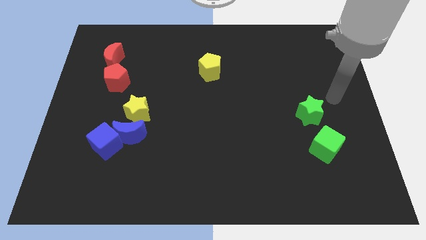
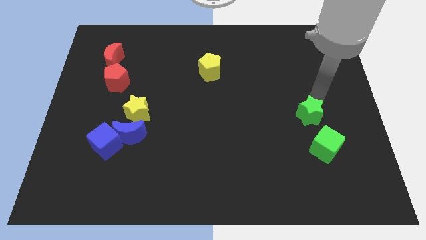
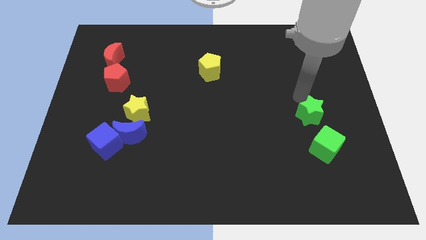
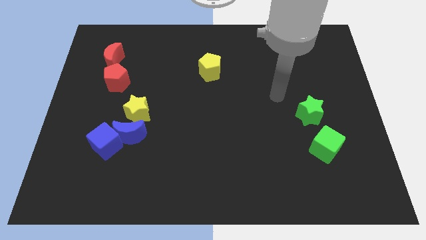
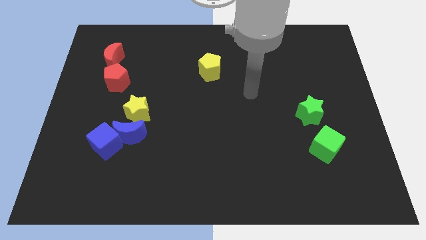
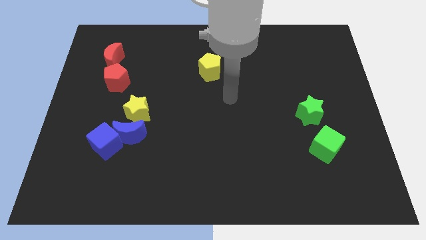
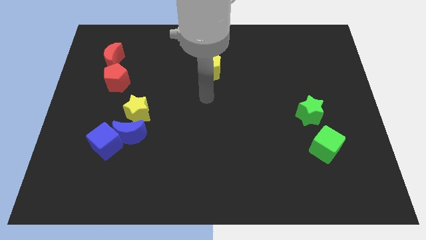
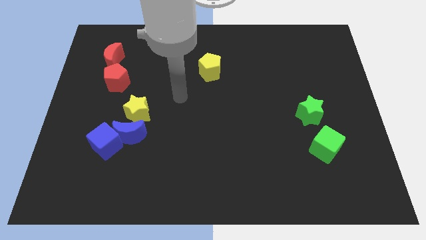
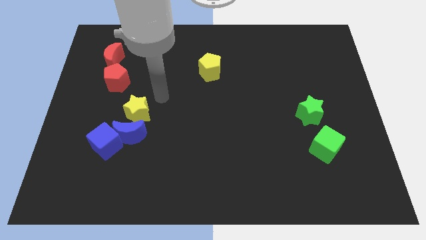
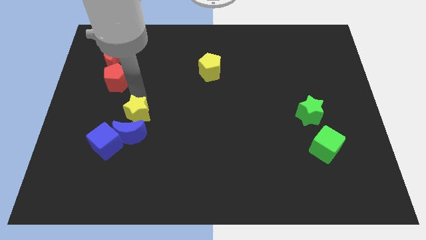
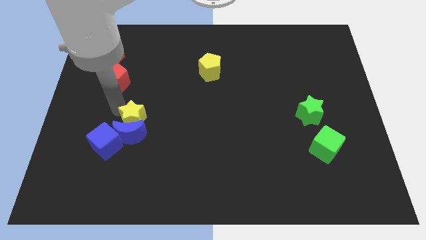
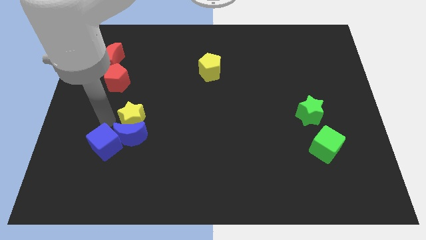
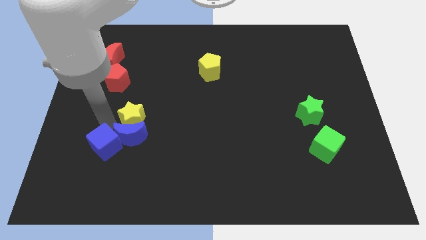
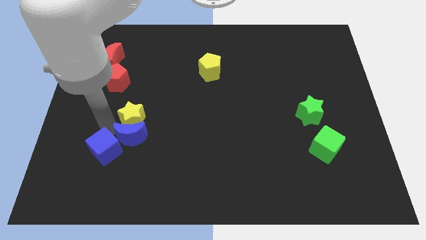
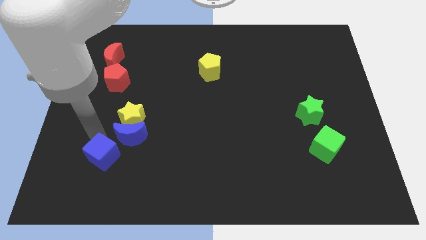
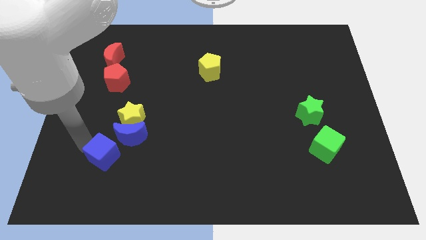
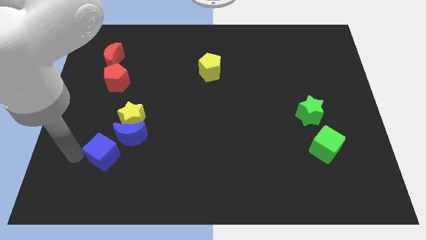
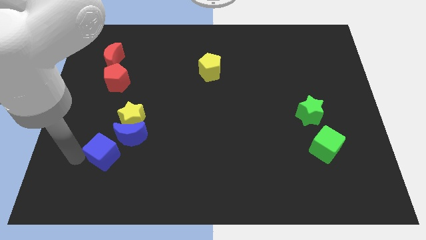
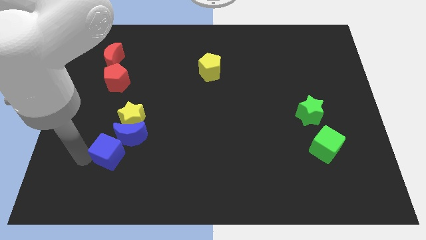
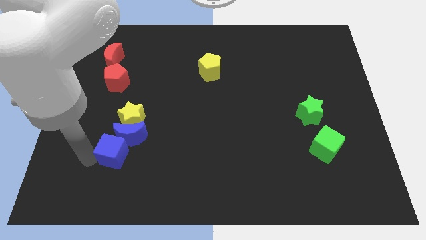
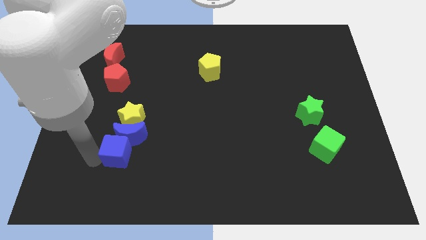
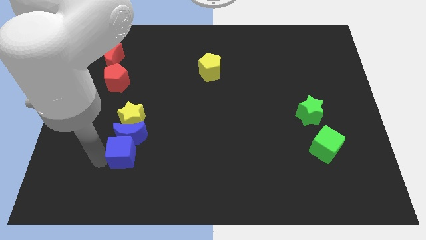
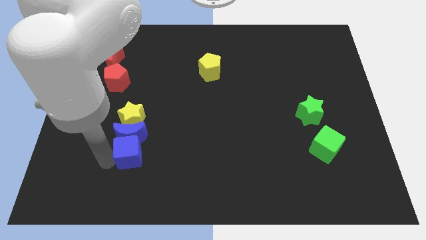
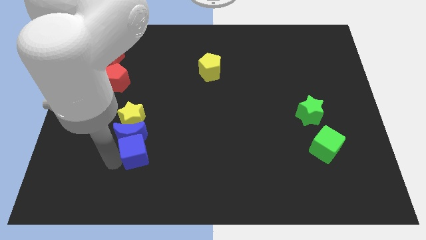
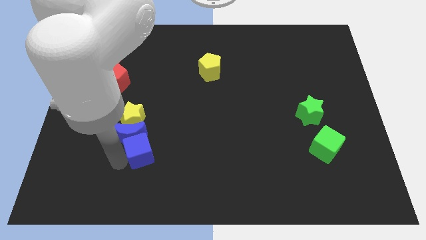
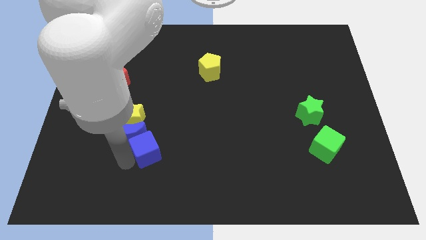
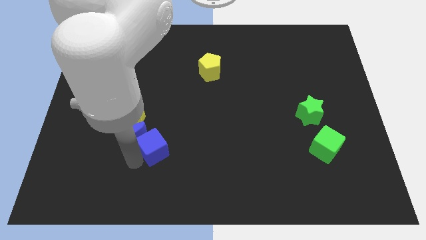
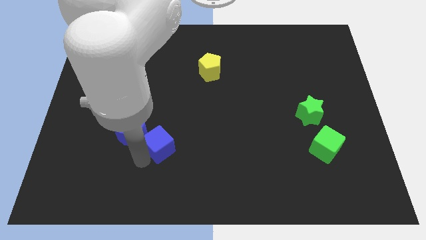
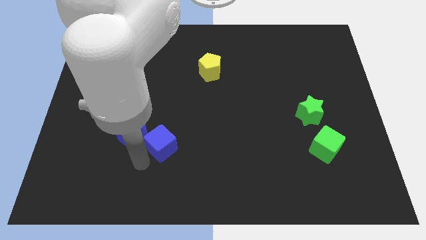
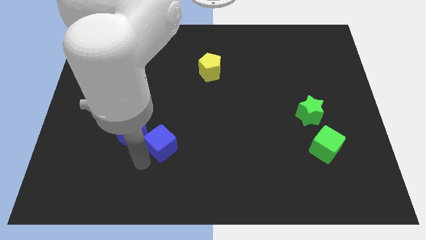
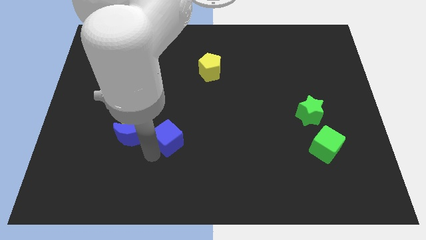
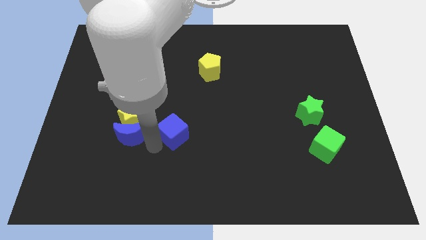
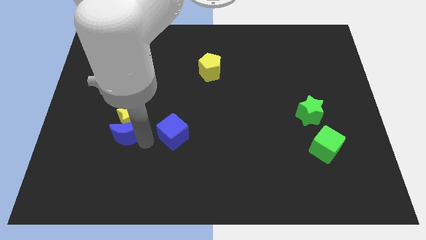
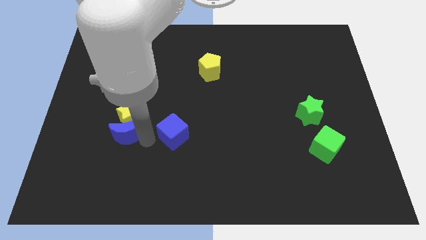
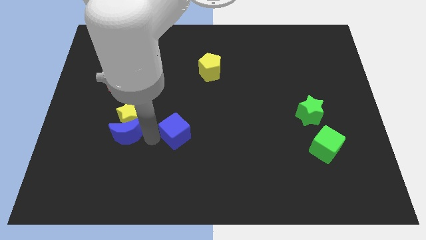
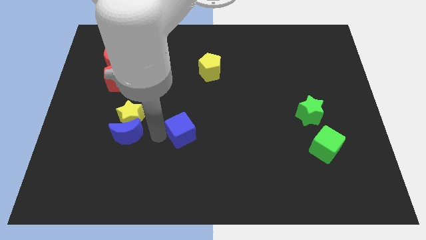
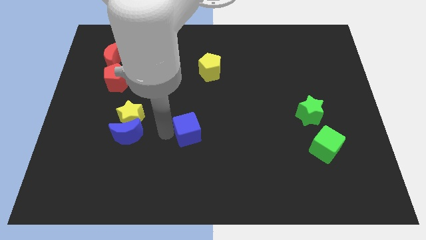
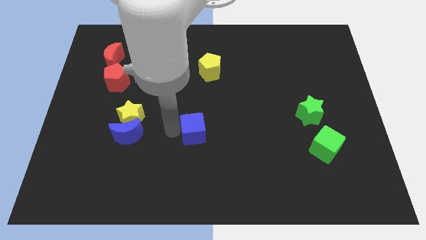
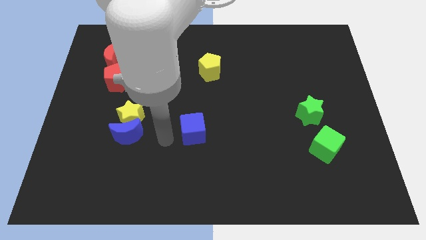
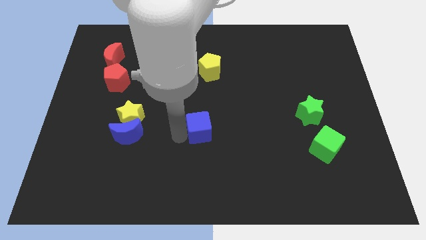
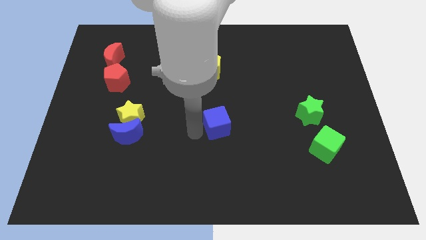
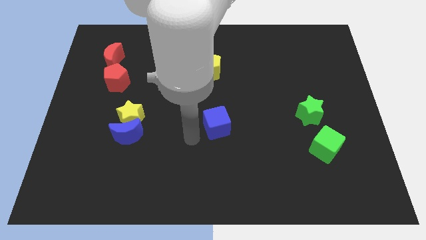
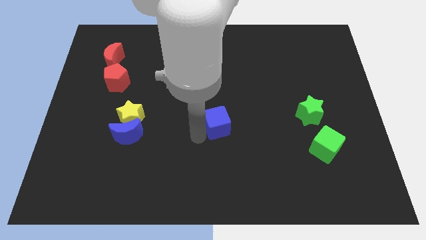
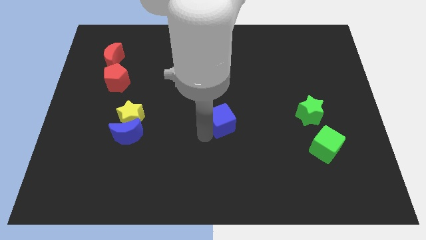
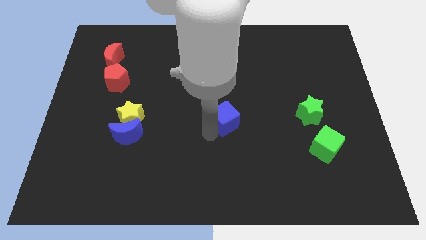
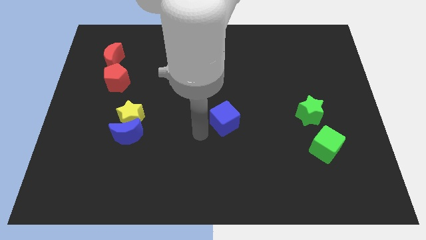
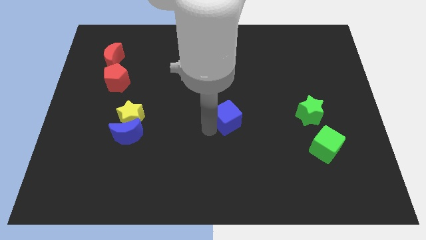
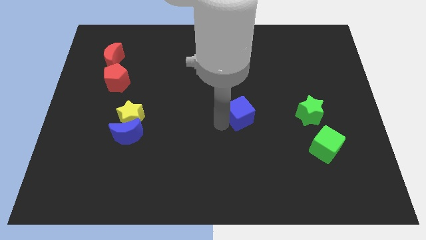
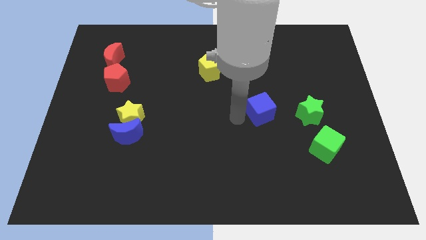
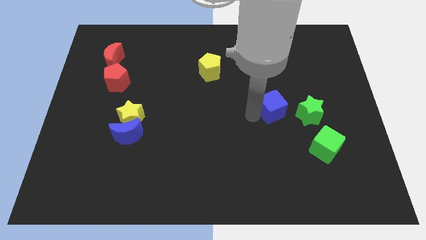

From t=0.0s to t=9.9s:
slide the blue cube to the top left of the green star
